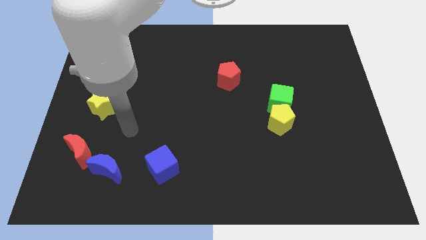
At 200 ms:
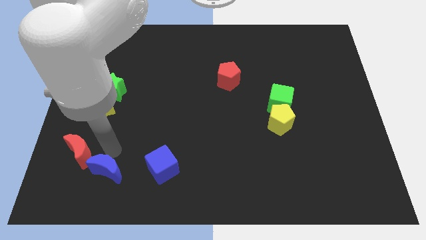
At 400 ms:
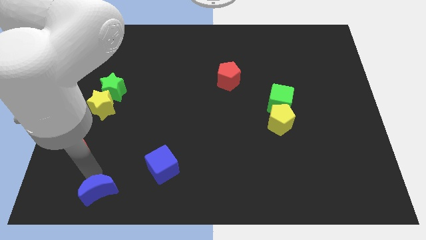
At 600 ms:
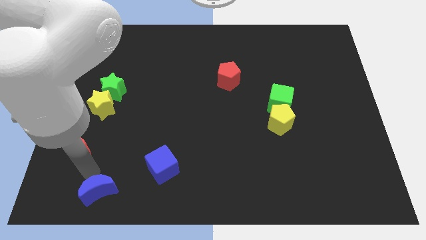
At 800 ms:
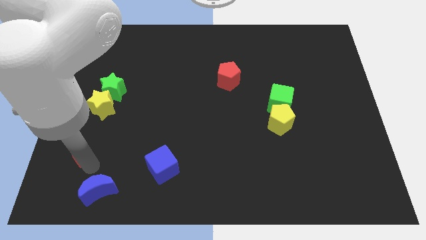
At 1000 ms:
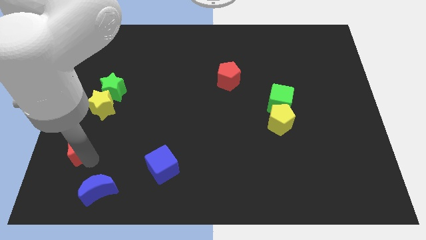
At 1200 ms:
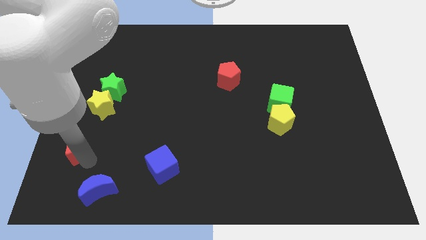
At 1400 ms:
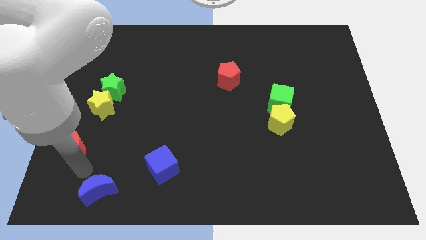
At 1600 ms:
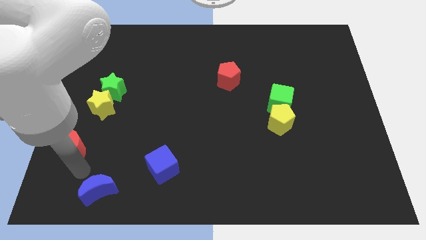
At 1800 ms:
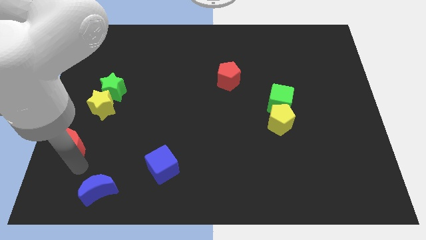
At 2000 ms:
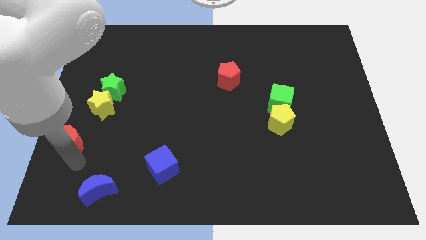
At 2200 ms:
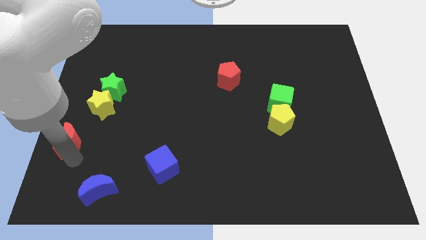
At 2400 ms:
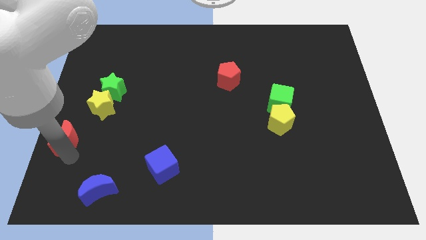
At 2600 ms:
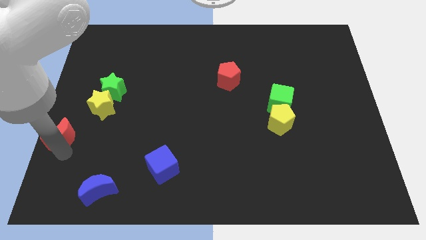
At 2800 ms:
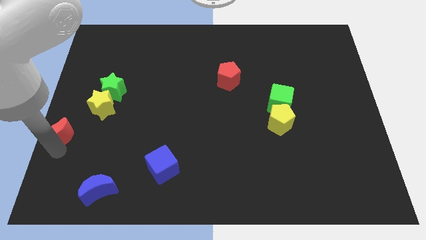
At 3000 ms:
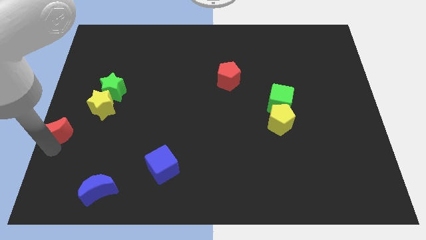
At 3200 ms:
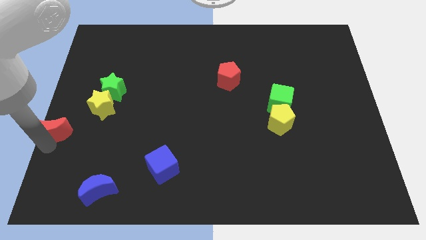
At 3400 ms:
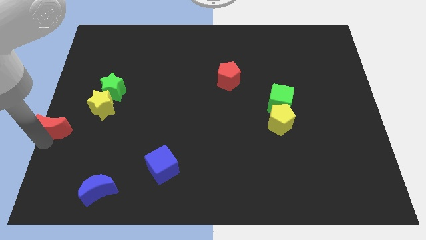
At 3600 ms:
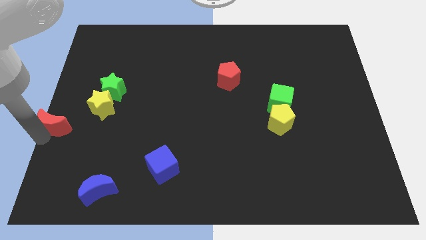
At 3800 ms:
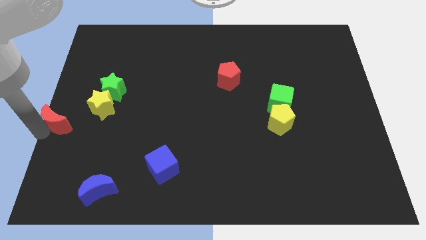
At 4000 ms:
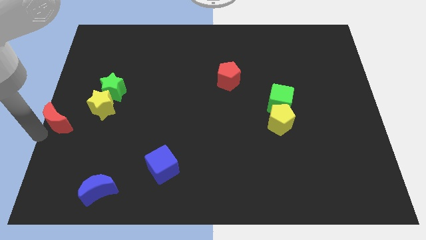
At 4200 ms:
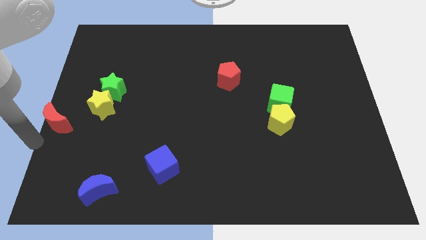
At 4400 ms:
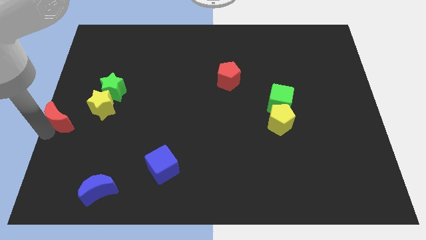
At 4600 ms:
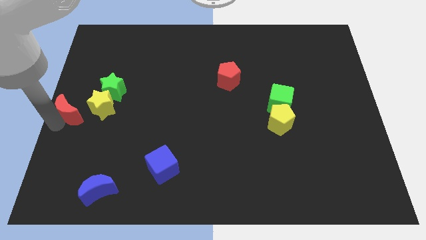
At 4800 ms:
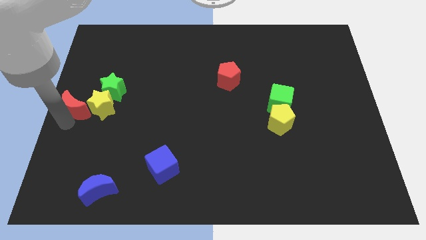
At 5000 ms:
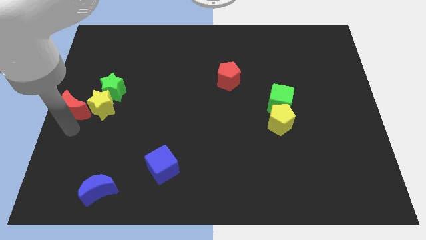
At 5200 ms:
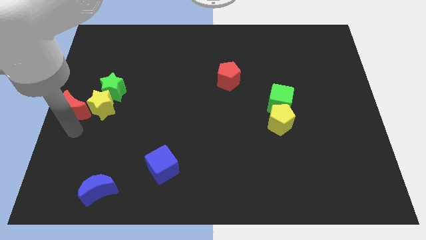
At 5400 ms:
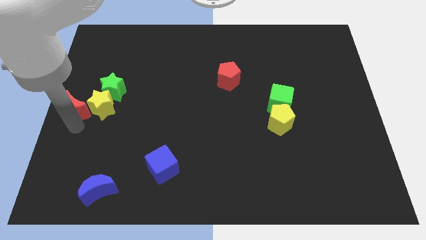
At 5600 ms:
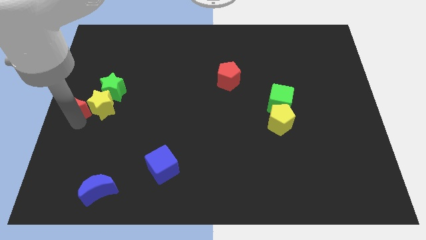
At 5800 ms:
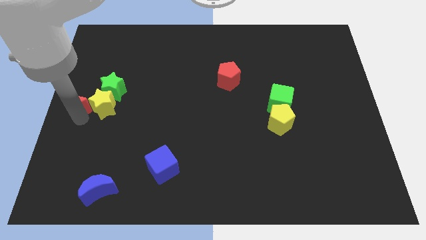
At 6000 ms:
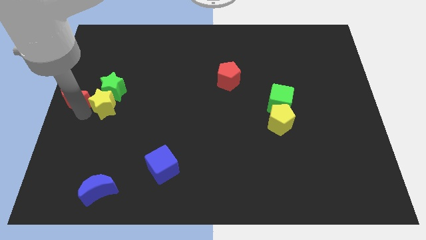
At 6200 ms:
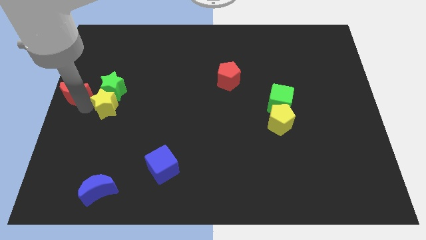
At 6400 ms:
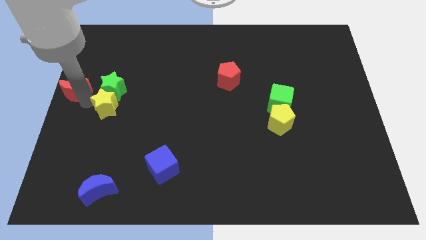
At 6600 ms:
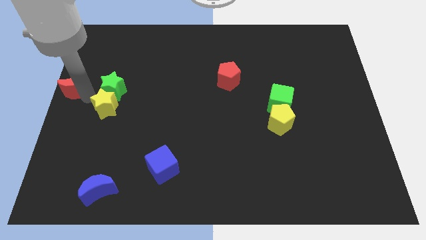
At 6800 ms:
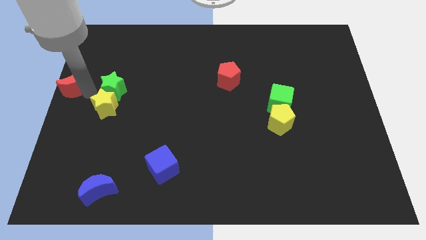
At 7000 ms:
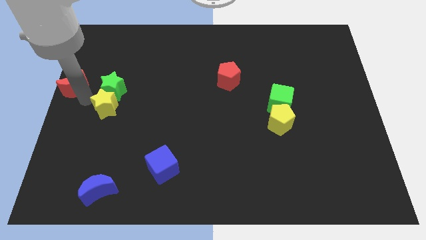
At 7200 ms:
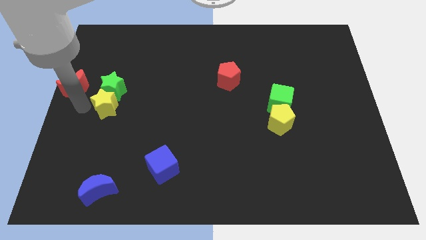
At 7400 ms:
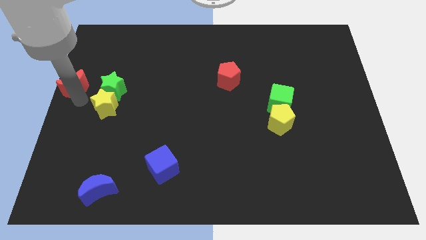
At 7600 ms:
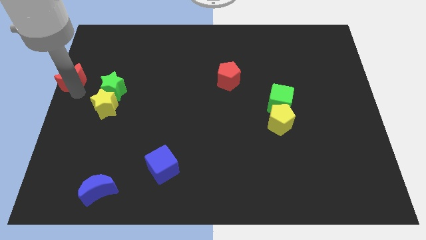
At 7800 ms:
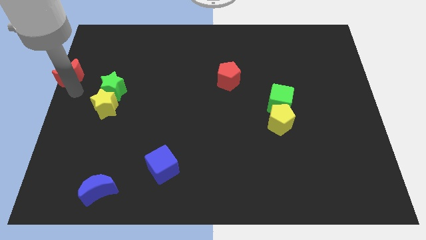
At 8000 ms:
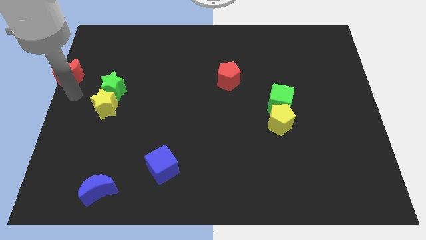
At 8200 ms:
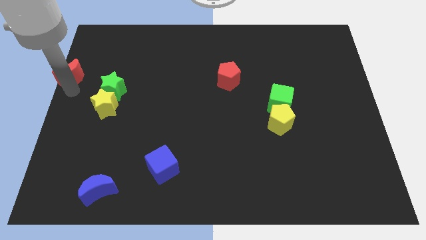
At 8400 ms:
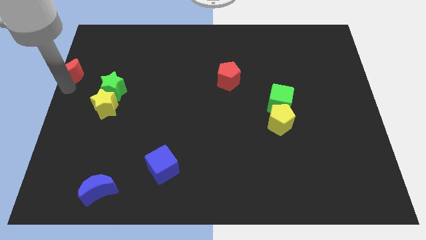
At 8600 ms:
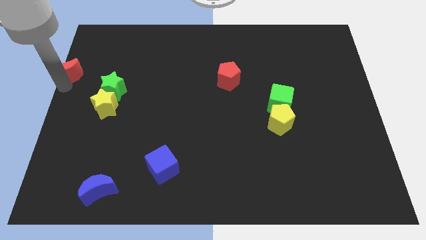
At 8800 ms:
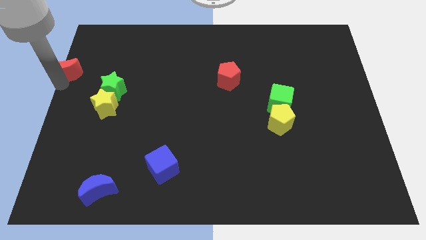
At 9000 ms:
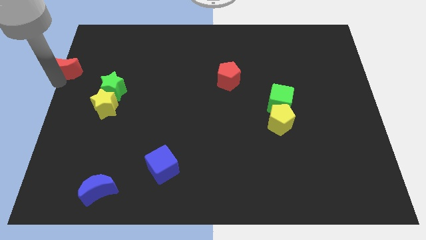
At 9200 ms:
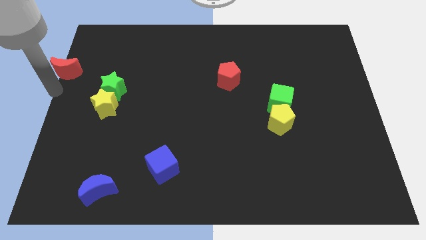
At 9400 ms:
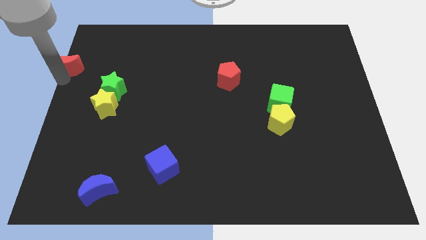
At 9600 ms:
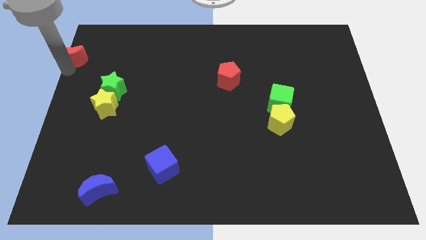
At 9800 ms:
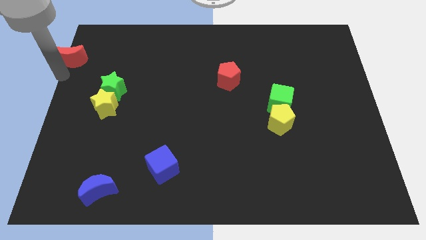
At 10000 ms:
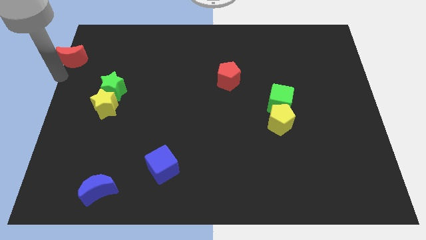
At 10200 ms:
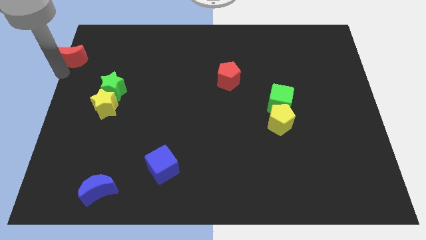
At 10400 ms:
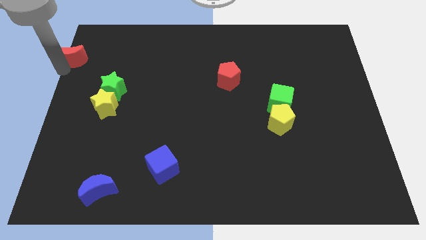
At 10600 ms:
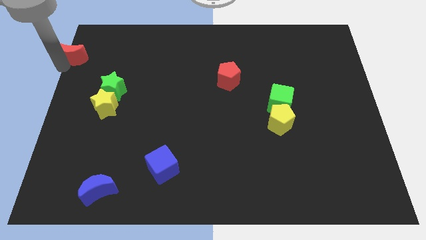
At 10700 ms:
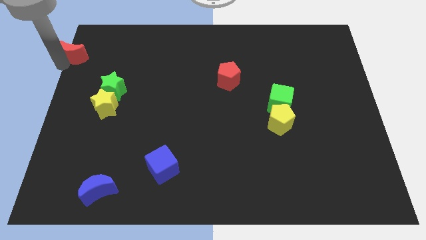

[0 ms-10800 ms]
put the red moon to the top left

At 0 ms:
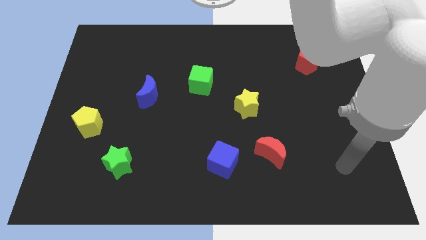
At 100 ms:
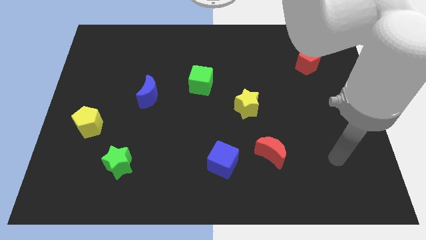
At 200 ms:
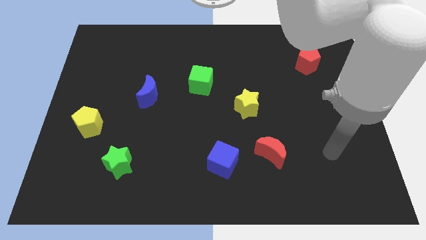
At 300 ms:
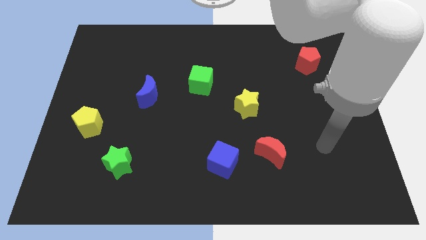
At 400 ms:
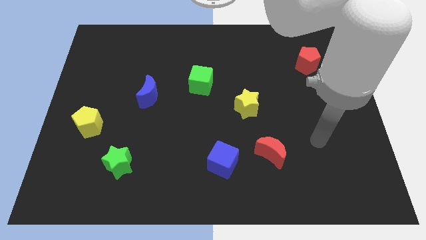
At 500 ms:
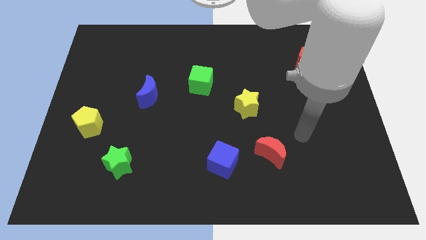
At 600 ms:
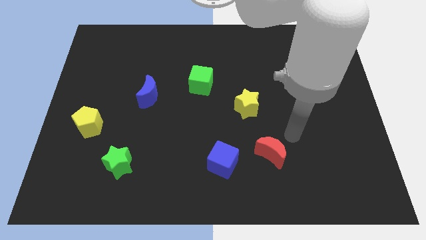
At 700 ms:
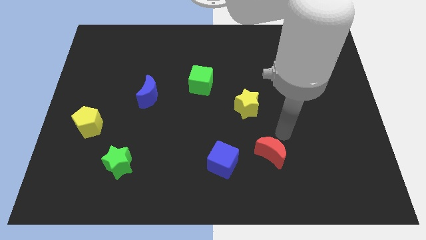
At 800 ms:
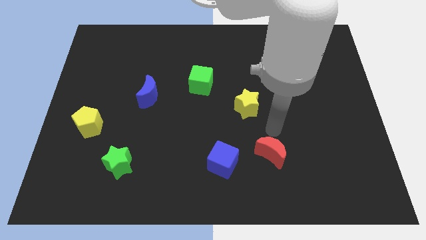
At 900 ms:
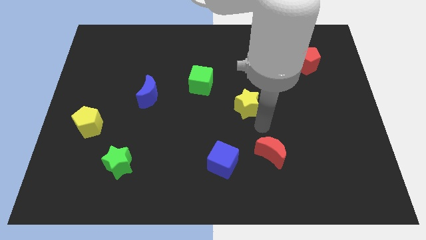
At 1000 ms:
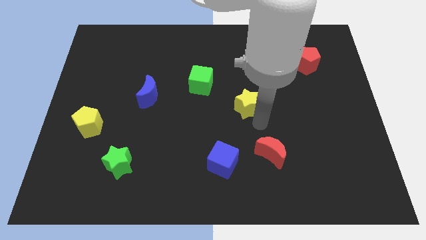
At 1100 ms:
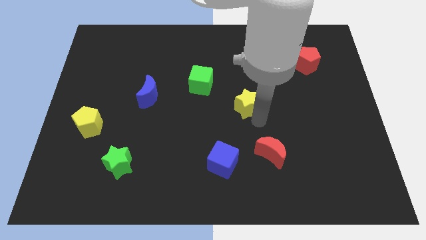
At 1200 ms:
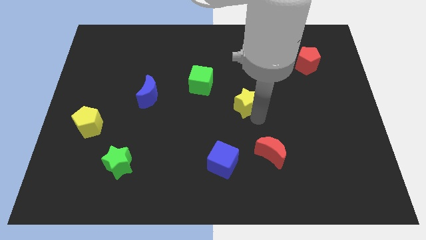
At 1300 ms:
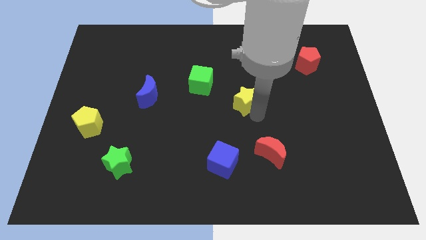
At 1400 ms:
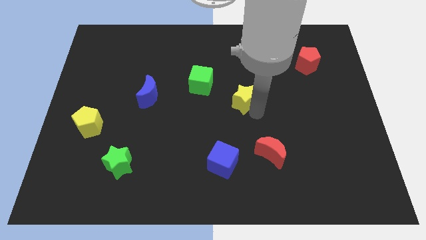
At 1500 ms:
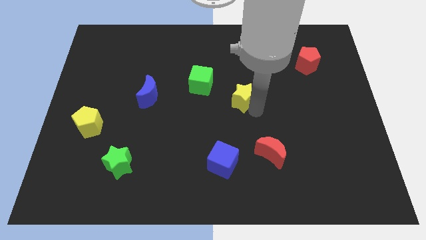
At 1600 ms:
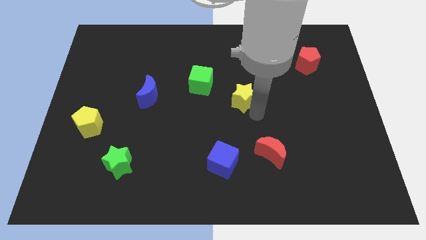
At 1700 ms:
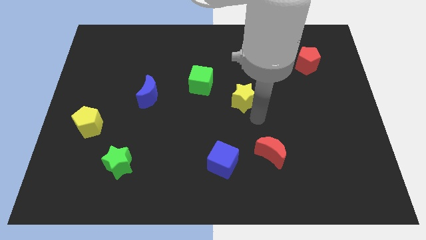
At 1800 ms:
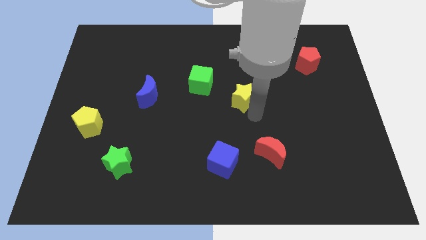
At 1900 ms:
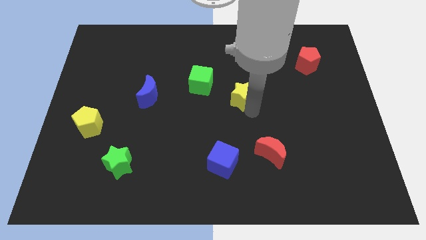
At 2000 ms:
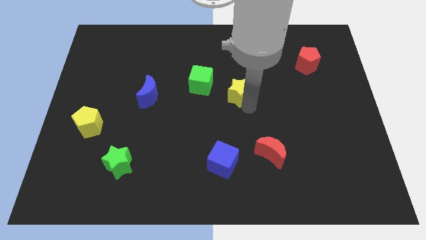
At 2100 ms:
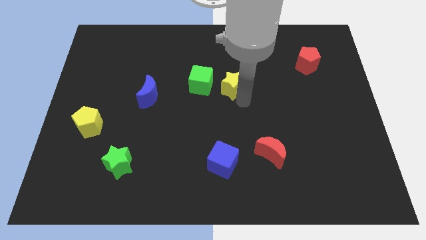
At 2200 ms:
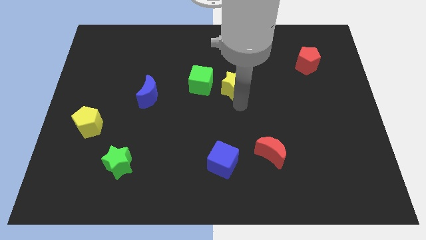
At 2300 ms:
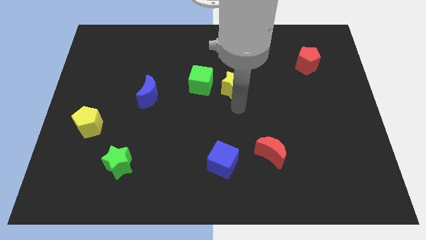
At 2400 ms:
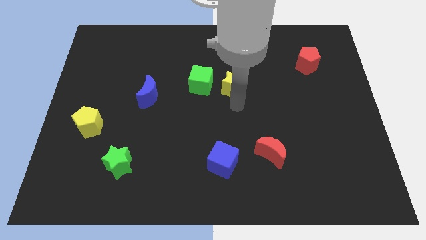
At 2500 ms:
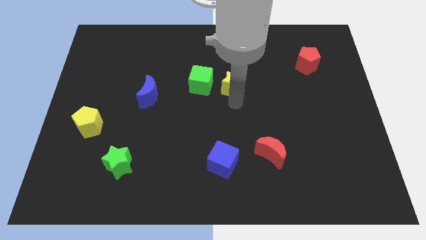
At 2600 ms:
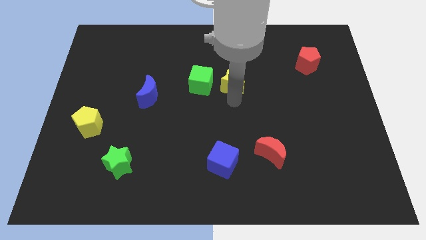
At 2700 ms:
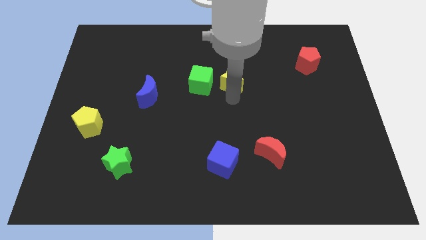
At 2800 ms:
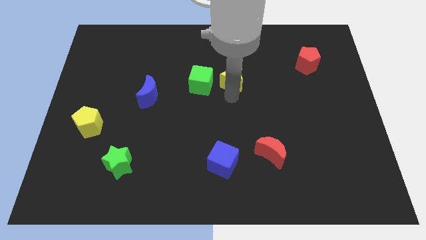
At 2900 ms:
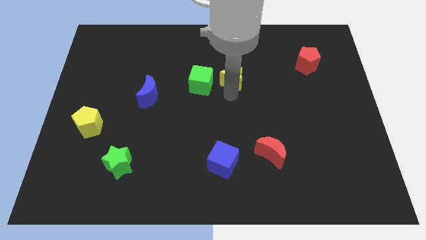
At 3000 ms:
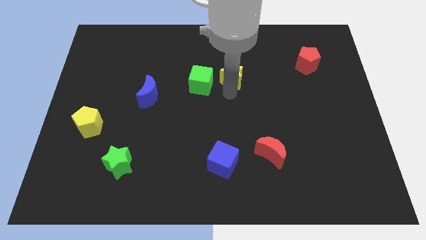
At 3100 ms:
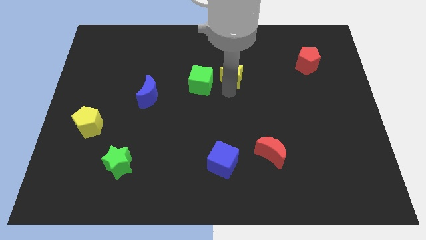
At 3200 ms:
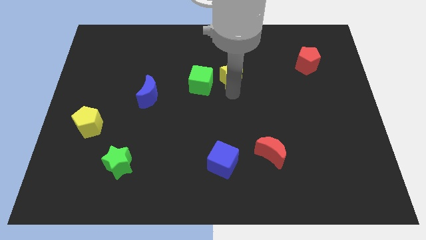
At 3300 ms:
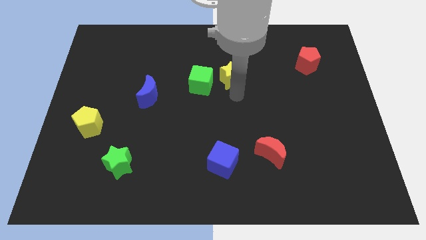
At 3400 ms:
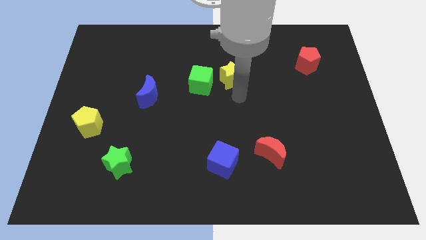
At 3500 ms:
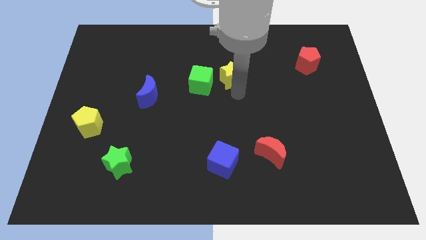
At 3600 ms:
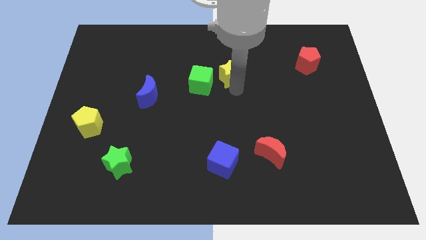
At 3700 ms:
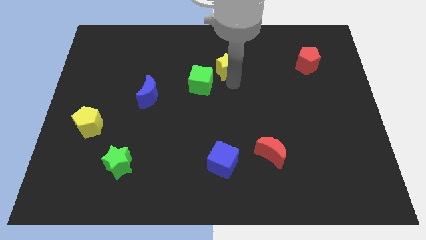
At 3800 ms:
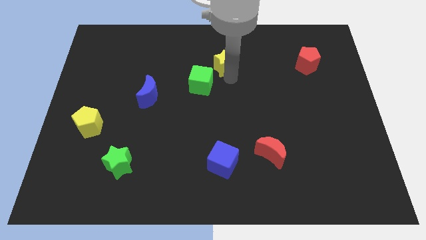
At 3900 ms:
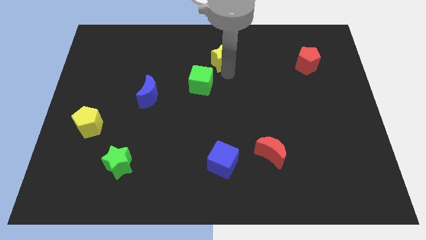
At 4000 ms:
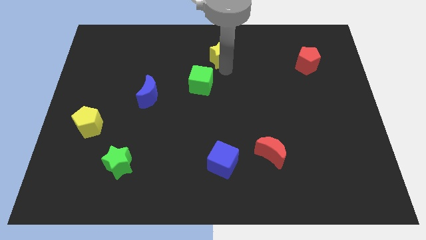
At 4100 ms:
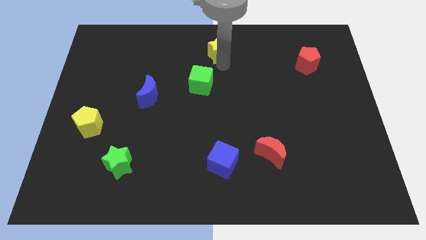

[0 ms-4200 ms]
move the yellow star to the top
